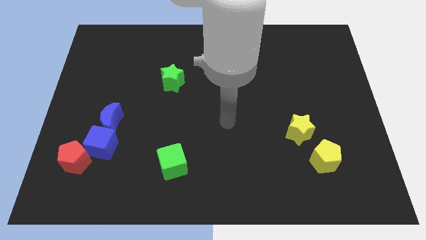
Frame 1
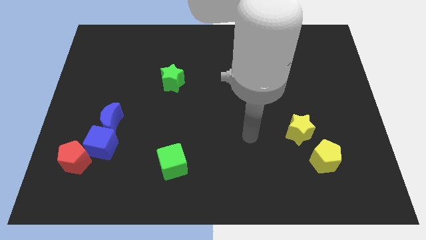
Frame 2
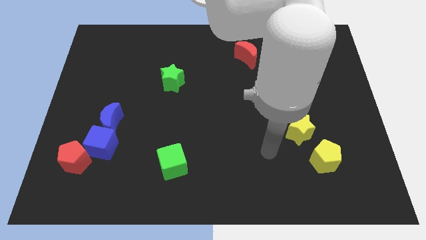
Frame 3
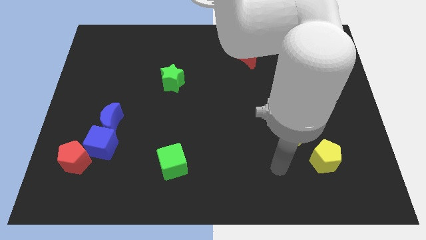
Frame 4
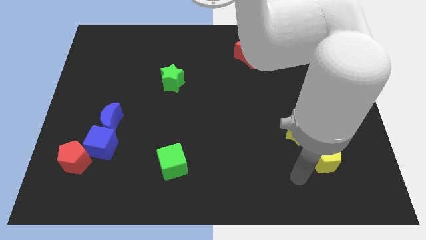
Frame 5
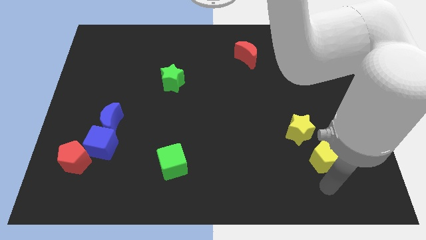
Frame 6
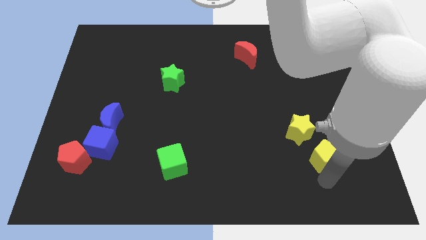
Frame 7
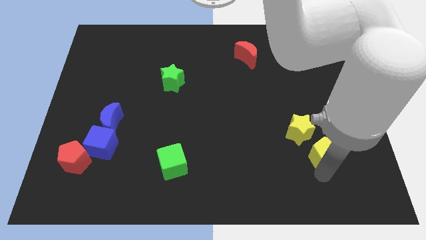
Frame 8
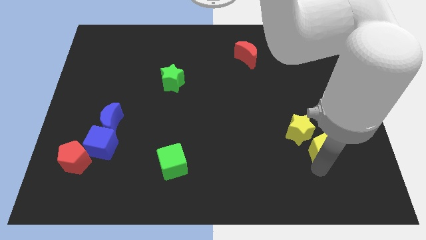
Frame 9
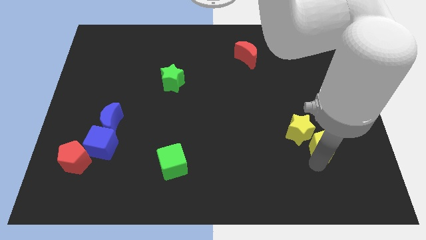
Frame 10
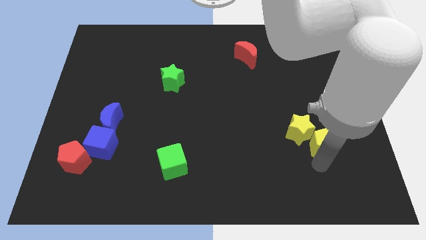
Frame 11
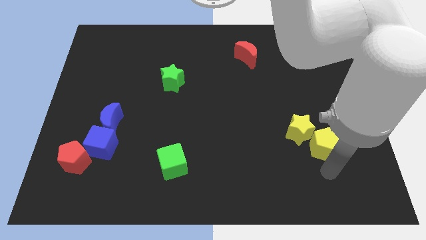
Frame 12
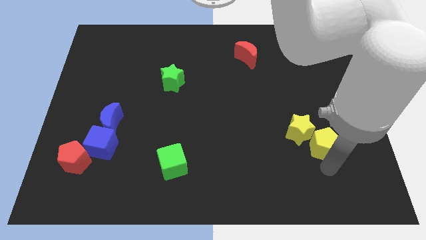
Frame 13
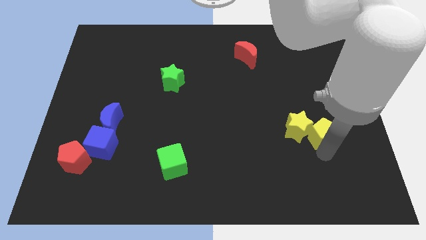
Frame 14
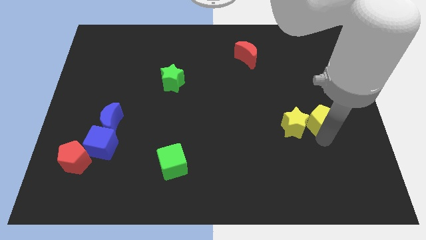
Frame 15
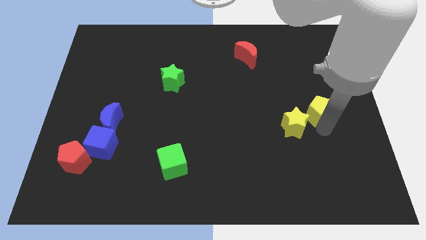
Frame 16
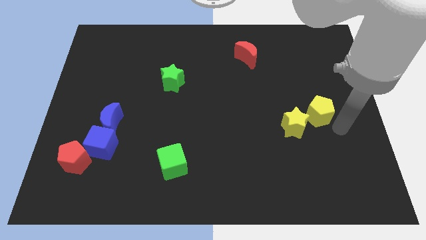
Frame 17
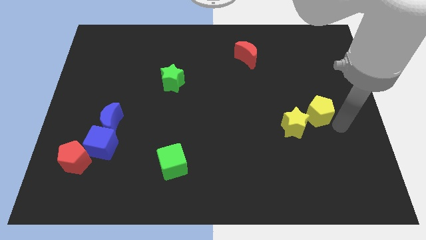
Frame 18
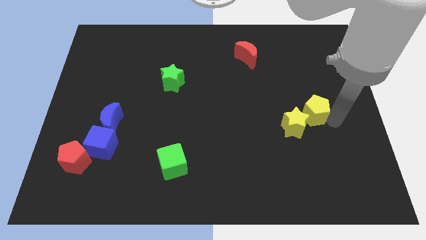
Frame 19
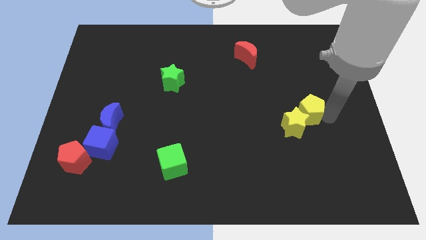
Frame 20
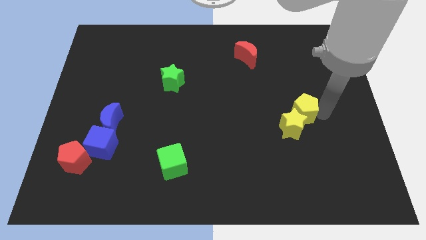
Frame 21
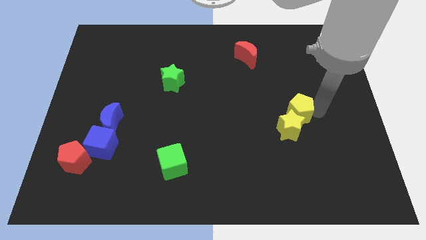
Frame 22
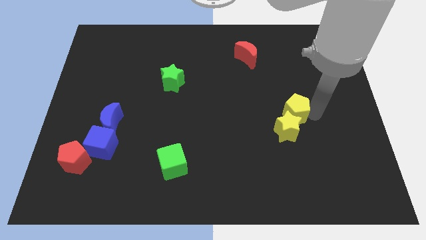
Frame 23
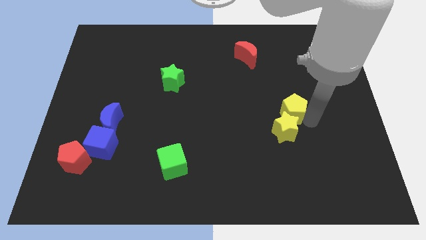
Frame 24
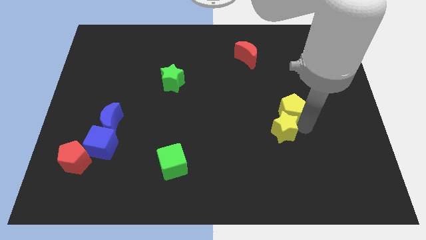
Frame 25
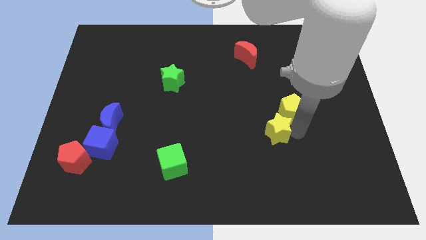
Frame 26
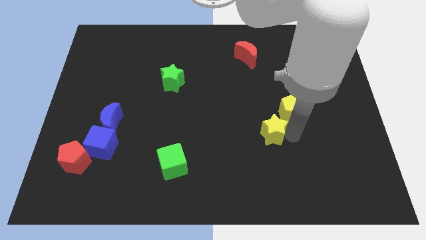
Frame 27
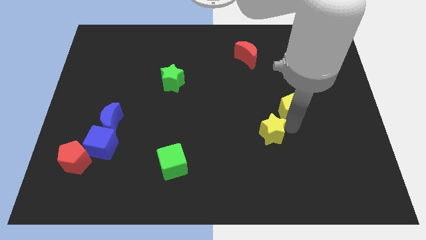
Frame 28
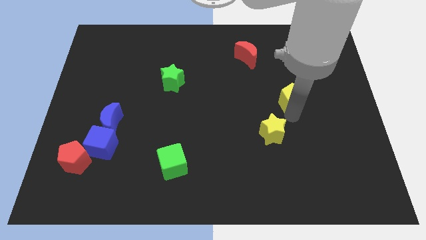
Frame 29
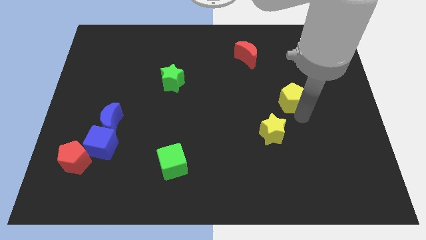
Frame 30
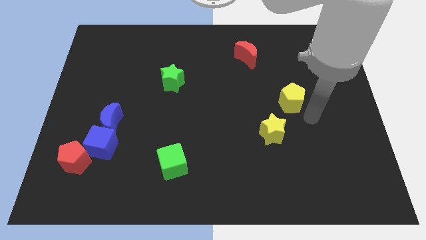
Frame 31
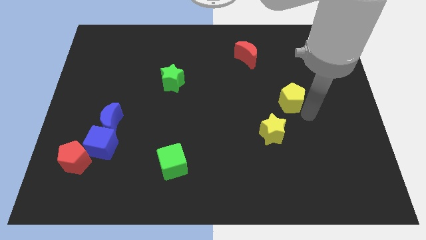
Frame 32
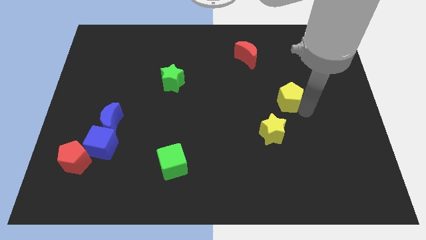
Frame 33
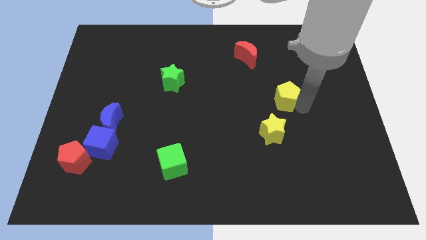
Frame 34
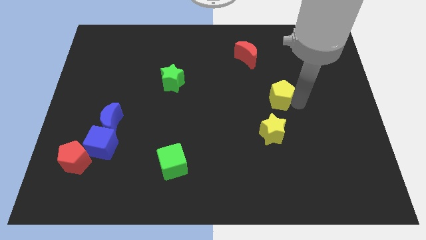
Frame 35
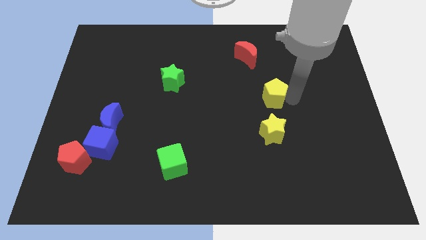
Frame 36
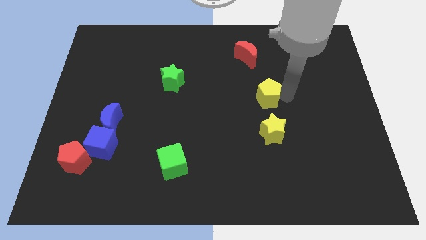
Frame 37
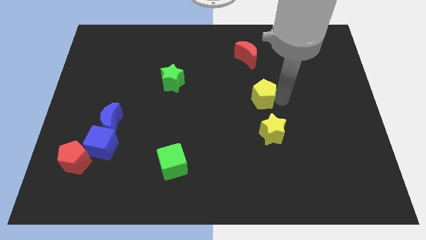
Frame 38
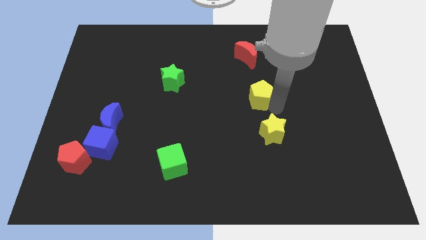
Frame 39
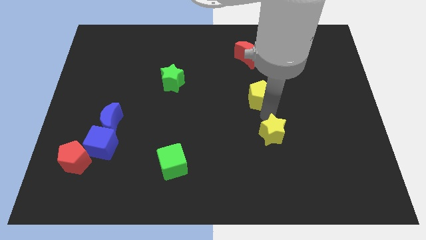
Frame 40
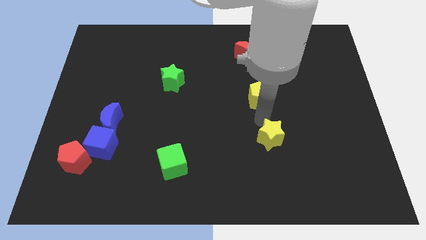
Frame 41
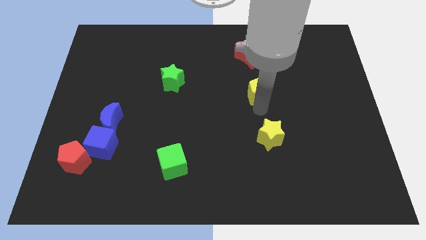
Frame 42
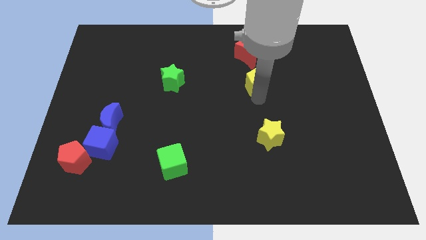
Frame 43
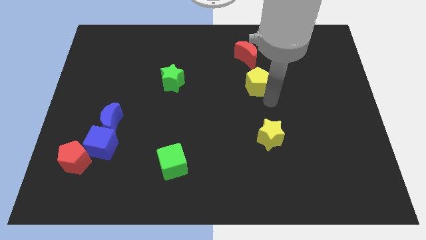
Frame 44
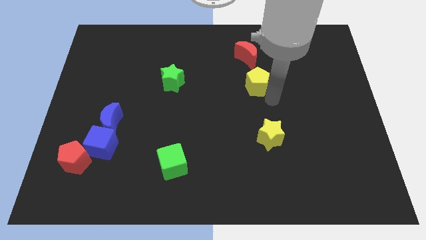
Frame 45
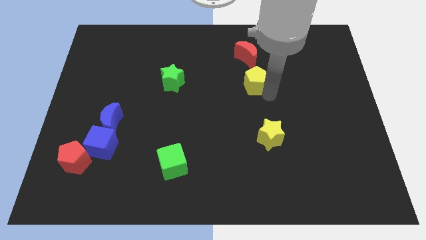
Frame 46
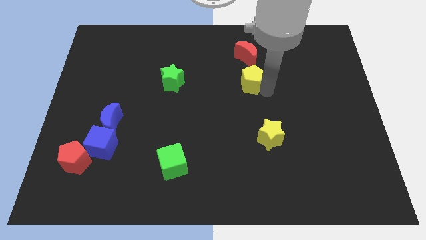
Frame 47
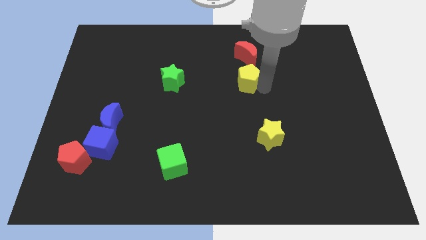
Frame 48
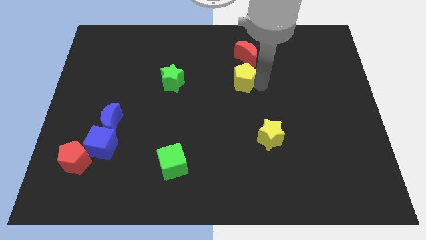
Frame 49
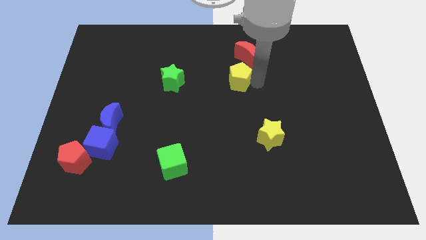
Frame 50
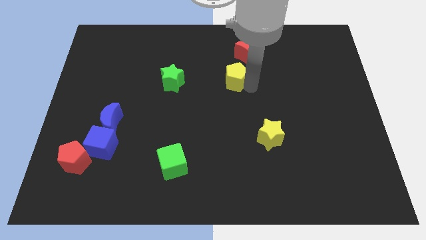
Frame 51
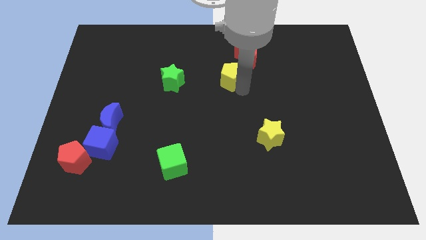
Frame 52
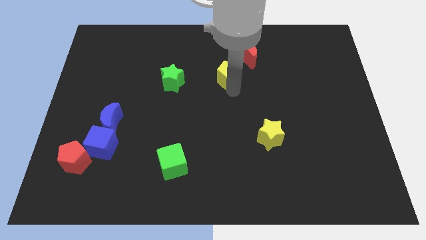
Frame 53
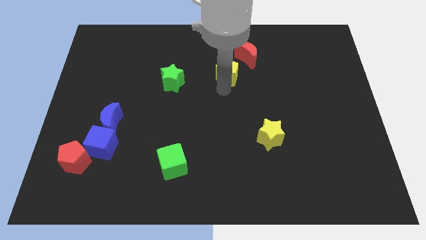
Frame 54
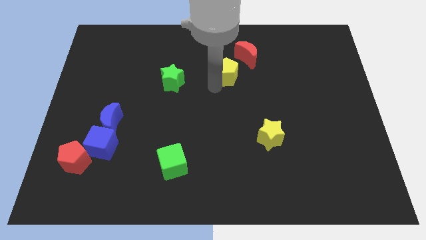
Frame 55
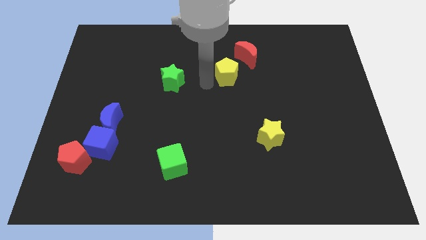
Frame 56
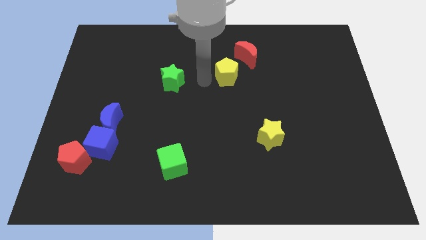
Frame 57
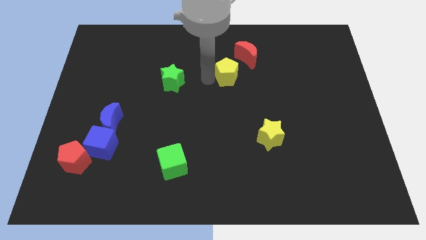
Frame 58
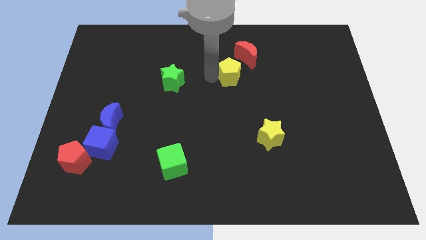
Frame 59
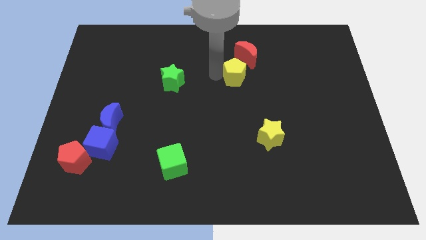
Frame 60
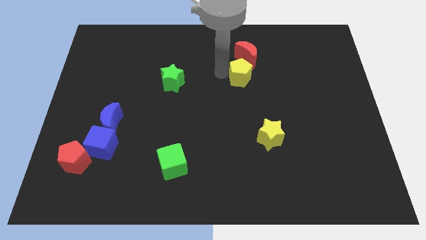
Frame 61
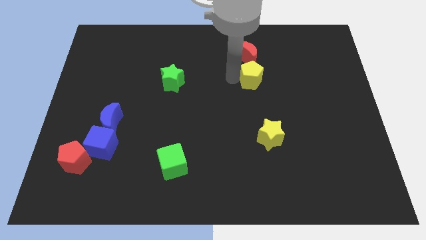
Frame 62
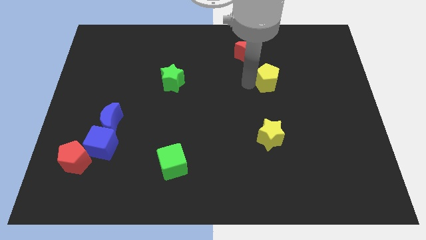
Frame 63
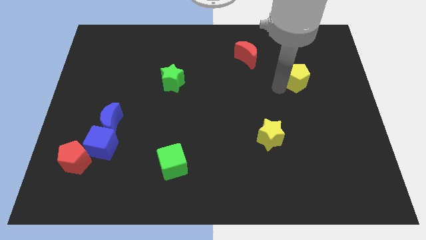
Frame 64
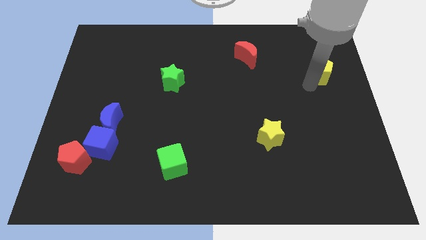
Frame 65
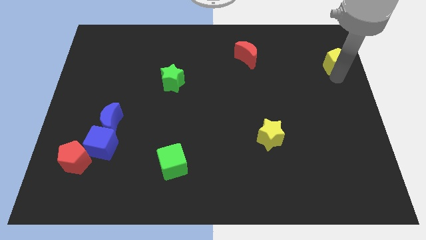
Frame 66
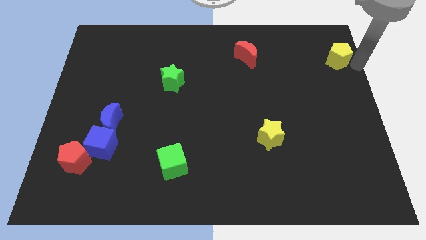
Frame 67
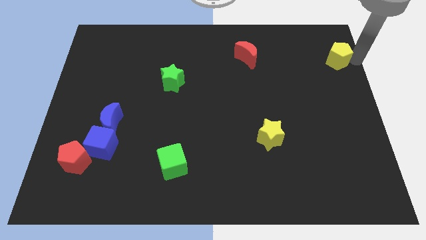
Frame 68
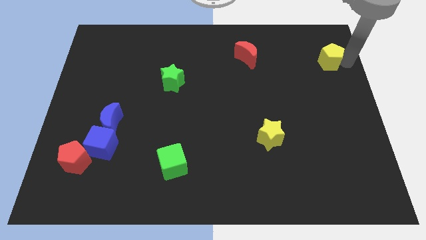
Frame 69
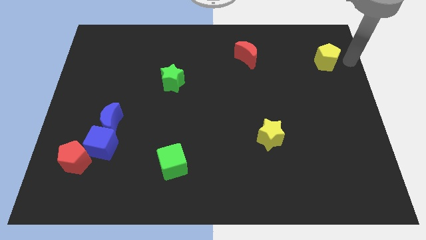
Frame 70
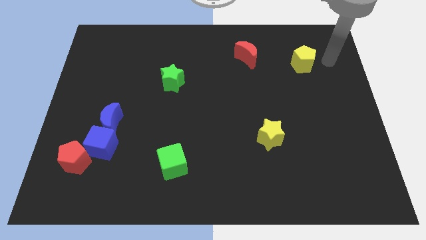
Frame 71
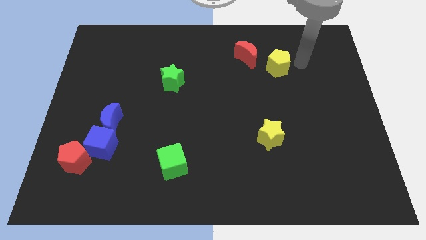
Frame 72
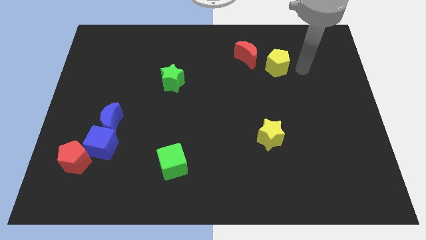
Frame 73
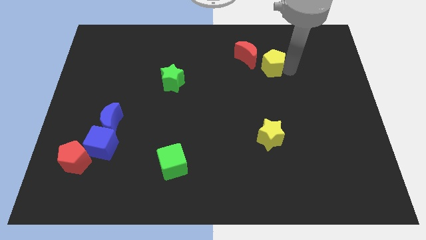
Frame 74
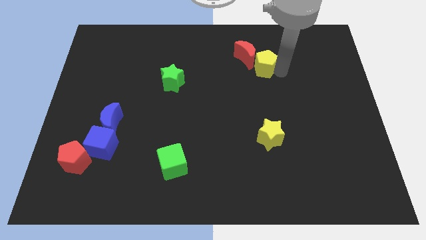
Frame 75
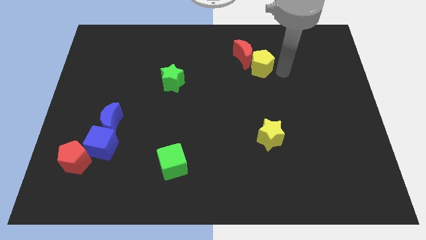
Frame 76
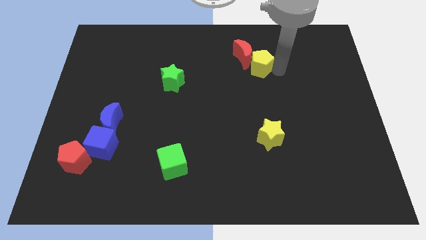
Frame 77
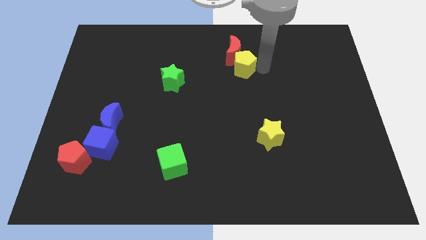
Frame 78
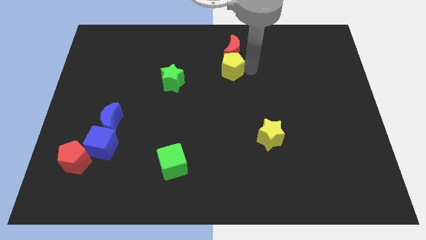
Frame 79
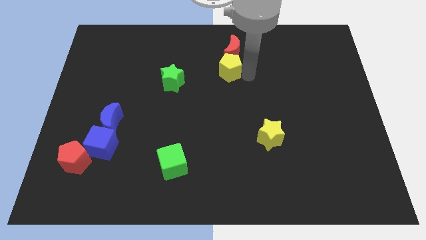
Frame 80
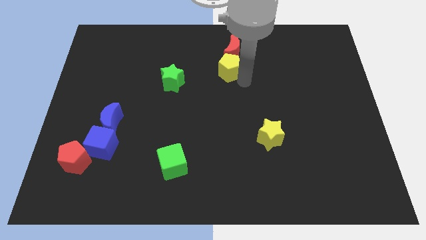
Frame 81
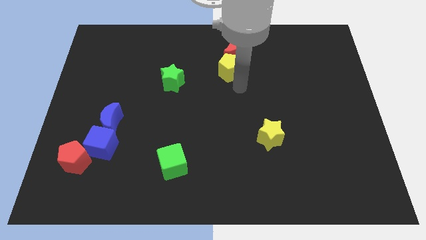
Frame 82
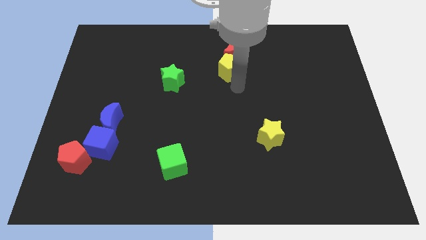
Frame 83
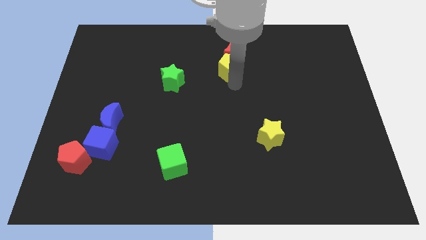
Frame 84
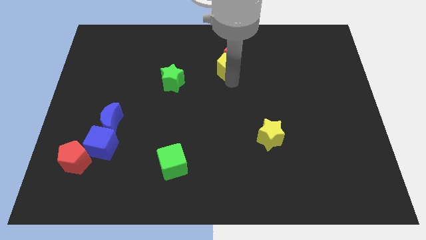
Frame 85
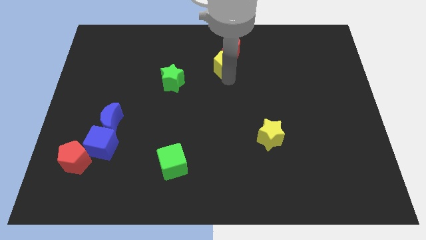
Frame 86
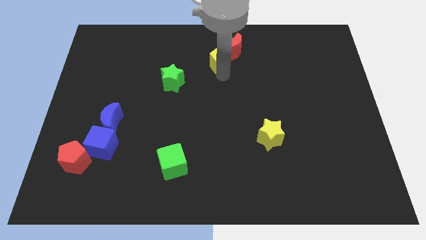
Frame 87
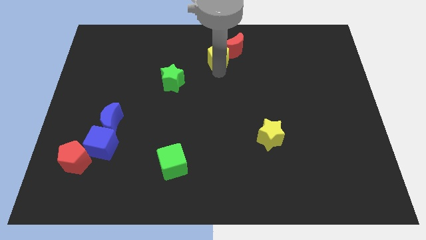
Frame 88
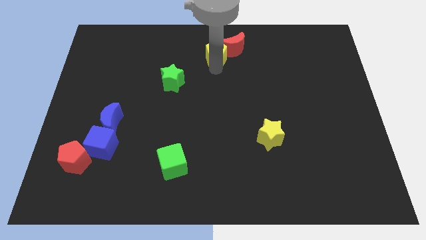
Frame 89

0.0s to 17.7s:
push the yellow pentagon to the towards your base
